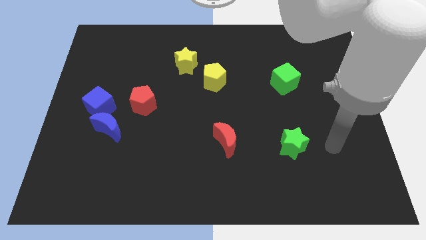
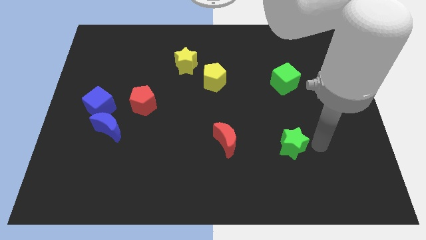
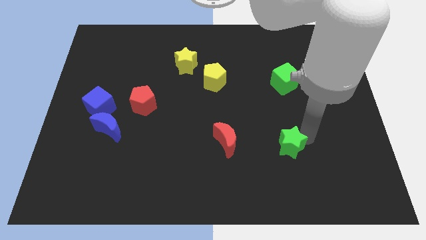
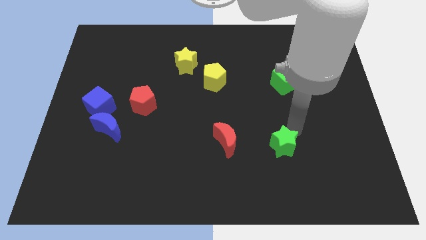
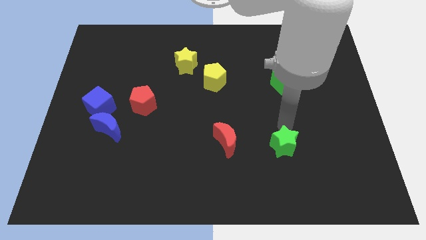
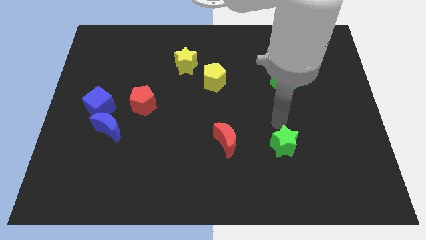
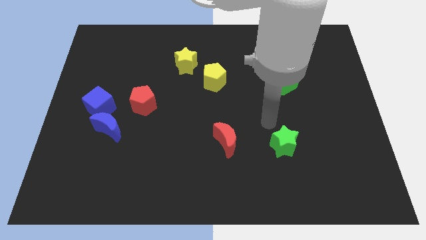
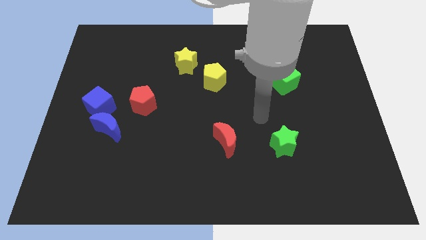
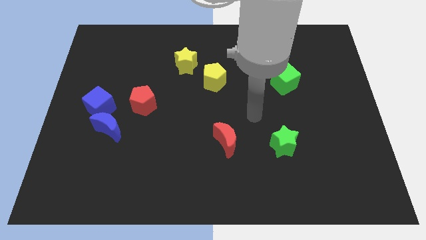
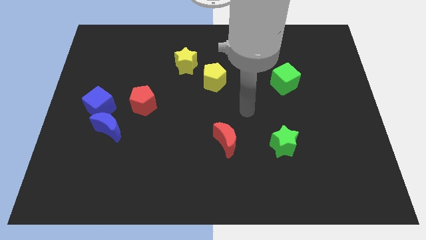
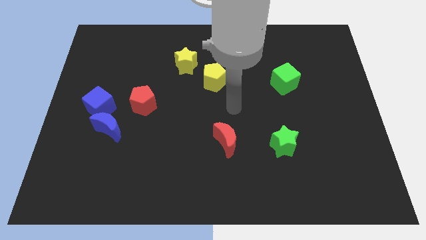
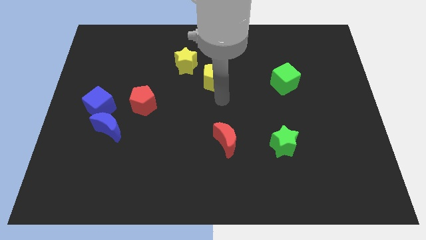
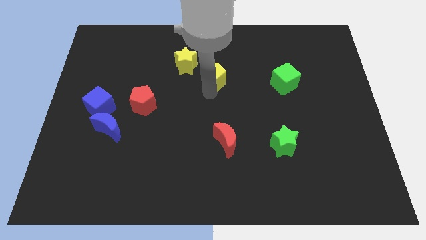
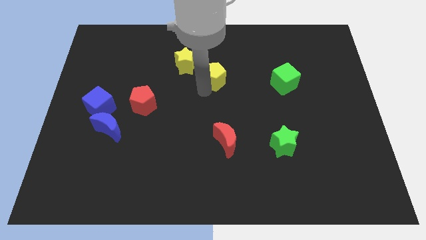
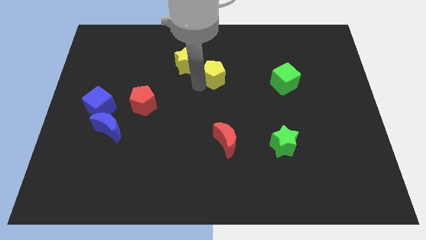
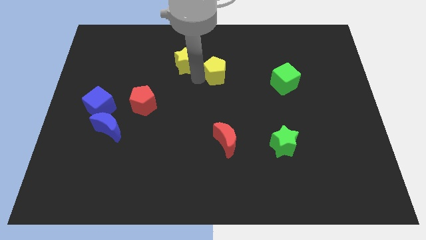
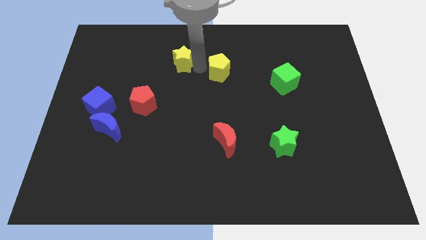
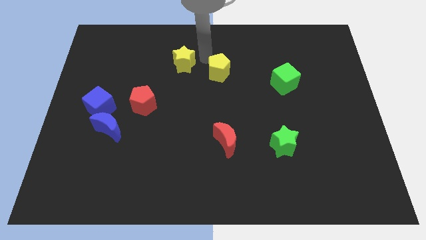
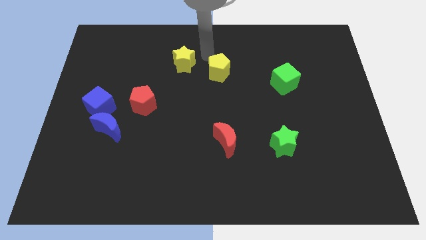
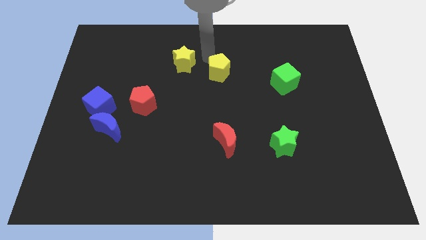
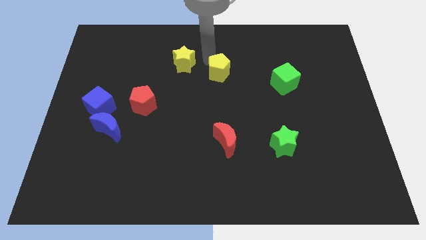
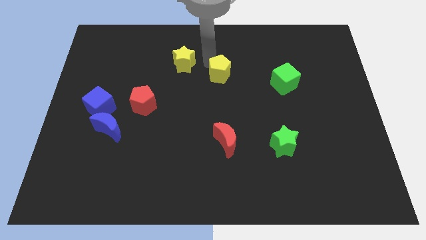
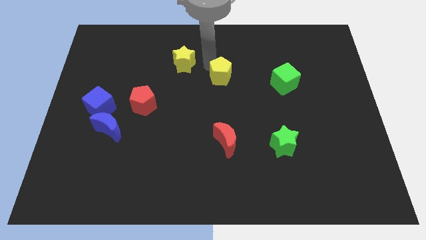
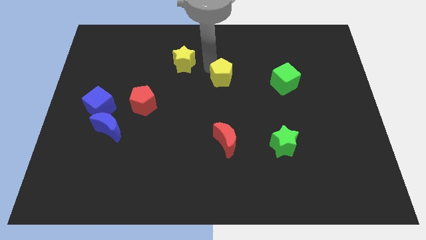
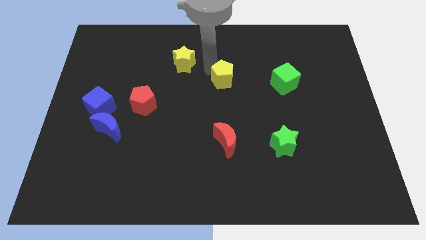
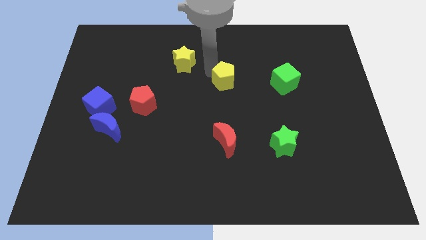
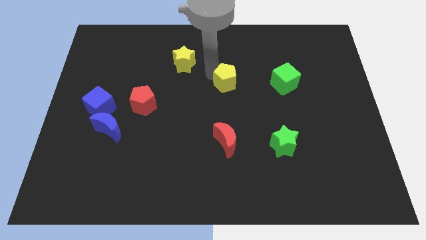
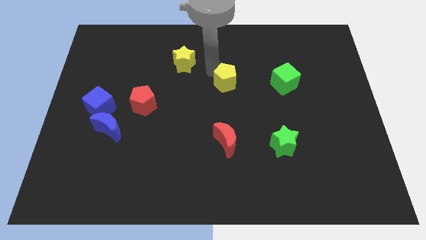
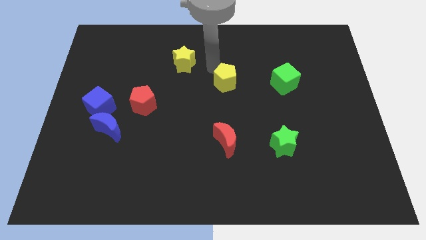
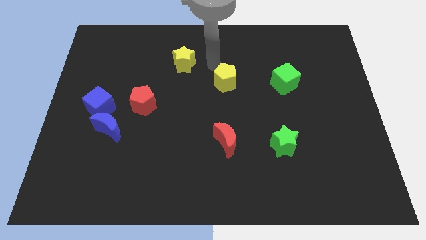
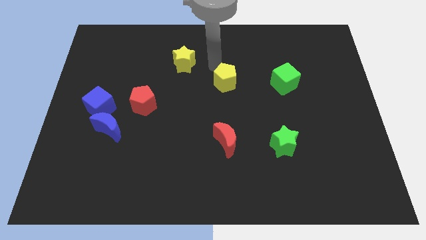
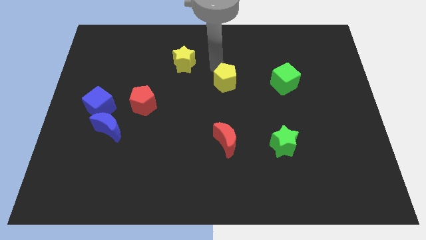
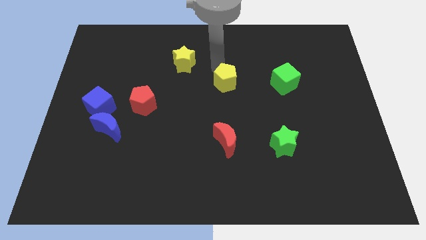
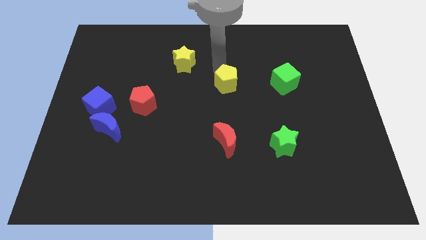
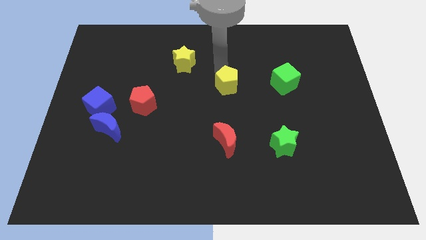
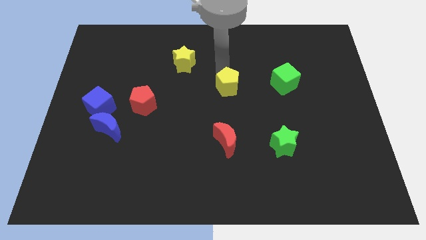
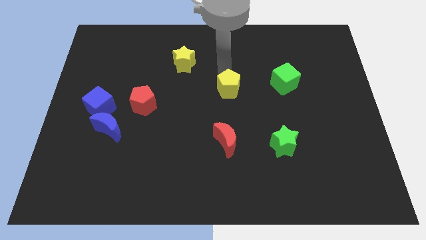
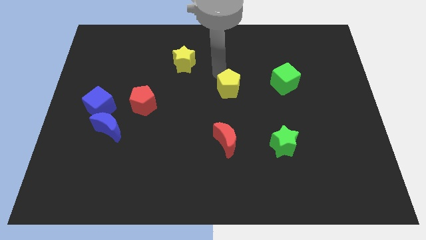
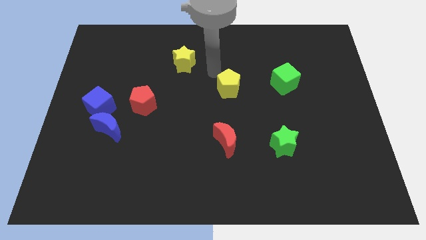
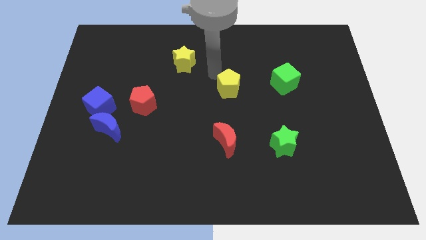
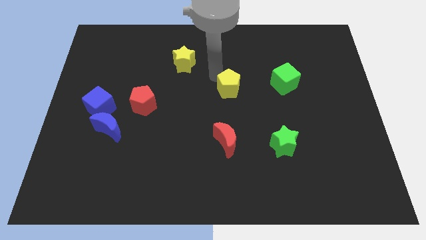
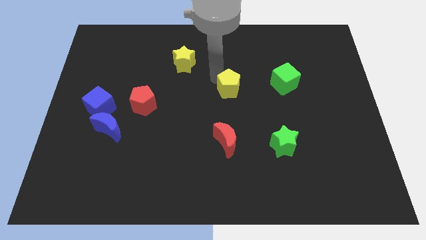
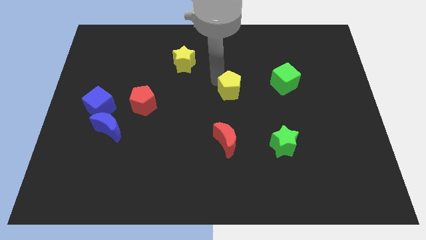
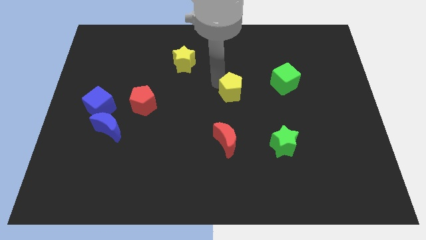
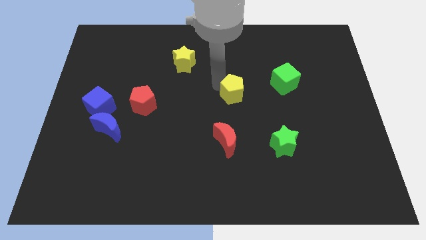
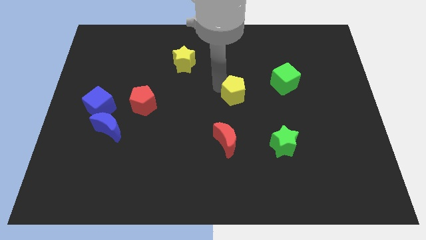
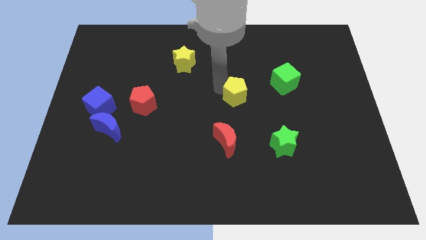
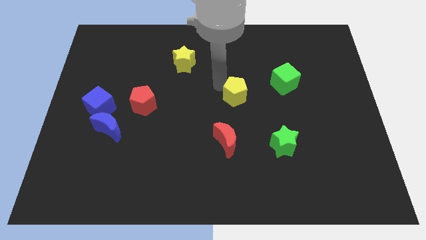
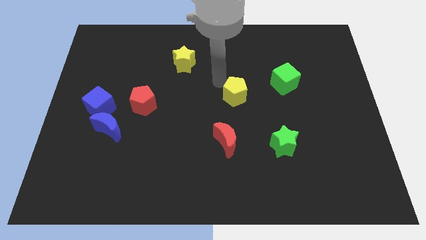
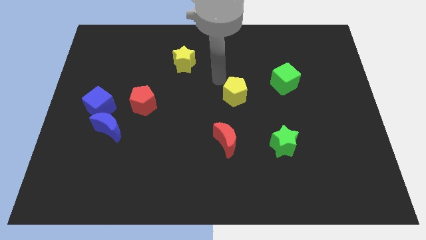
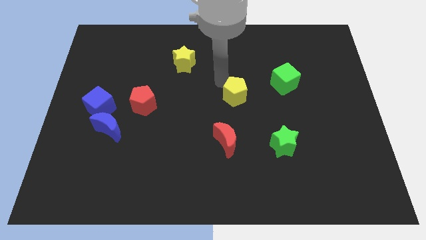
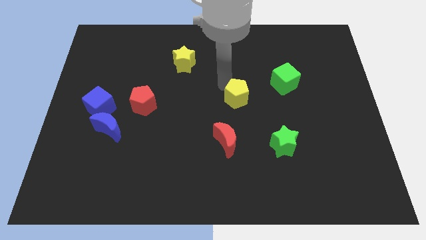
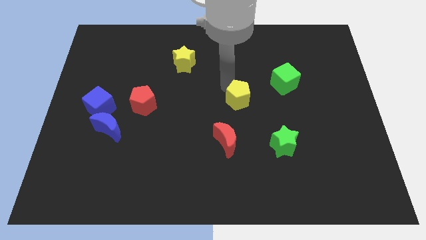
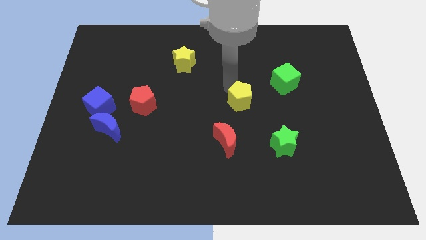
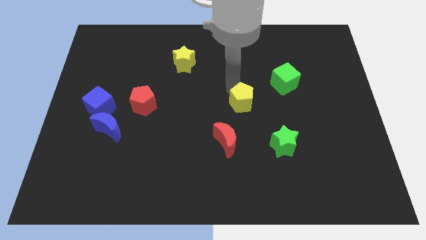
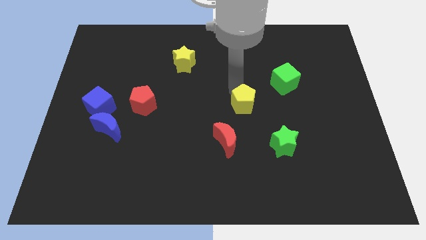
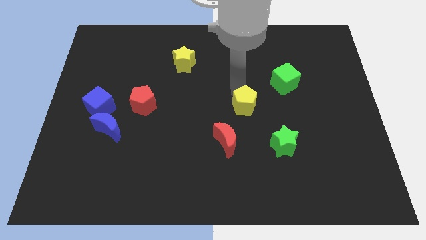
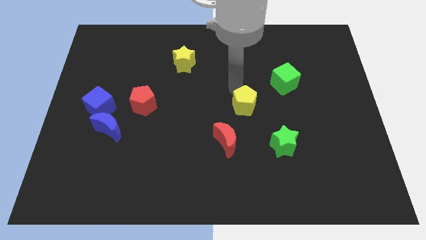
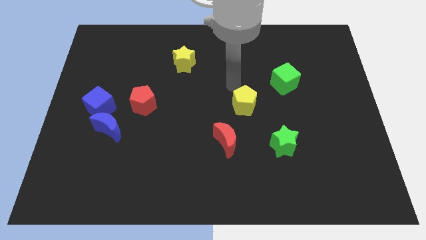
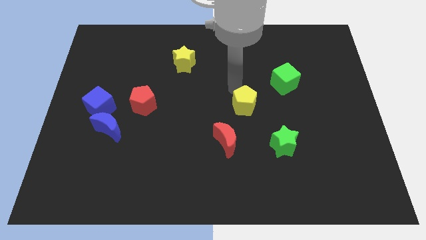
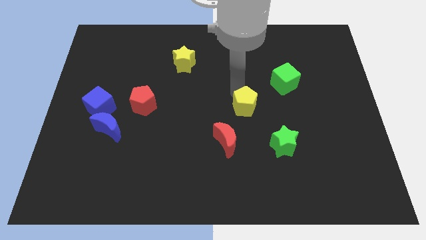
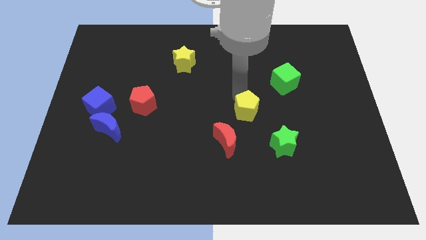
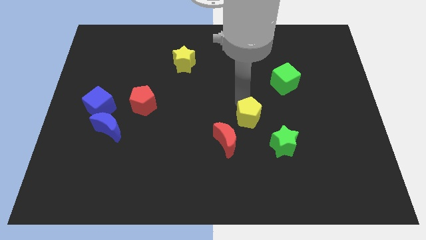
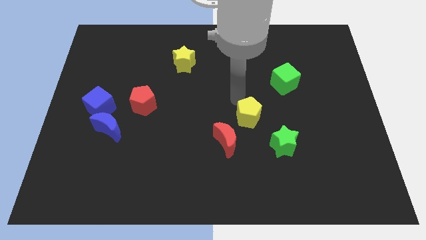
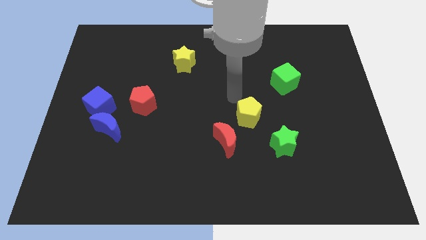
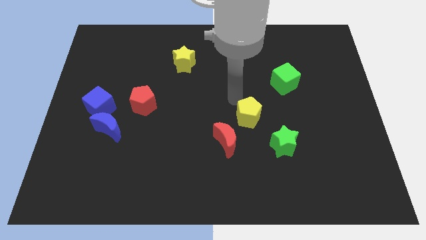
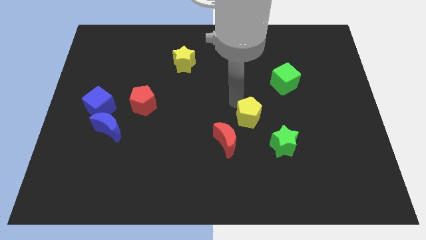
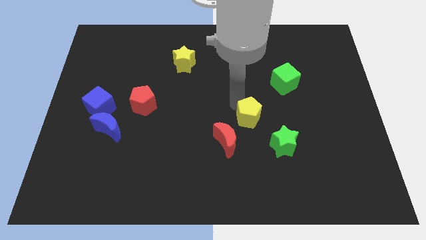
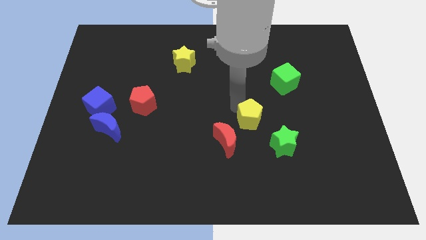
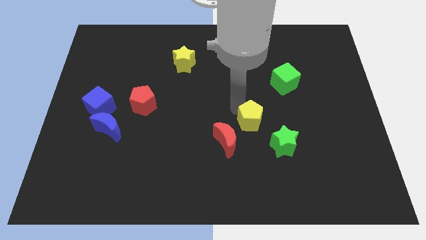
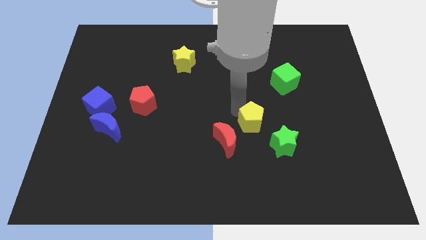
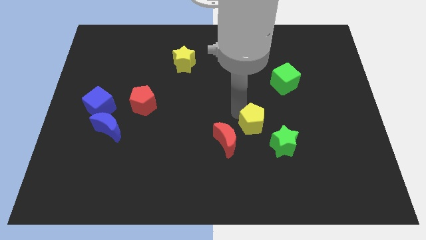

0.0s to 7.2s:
move the yellow pentagon to the right side of the red moon
